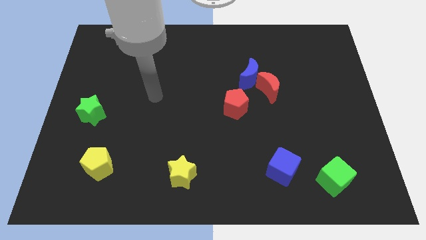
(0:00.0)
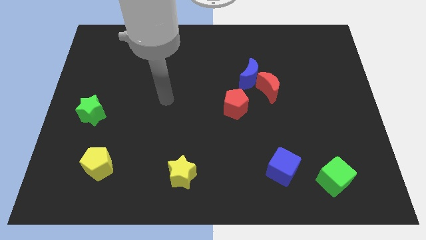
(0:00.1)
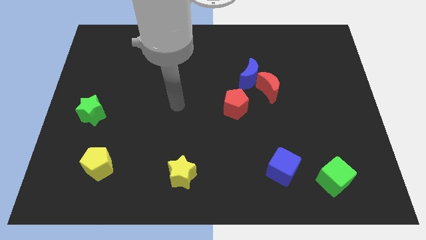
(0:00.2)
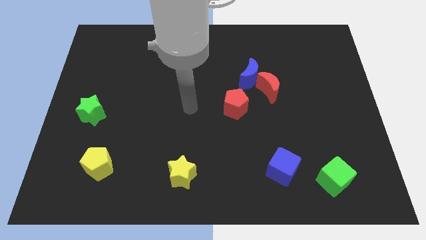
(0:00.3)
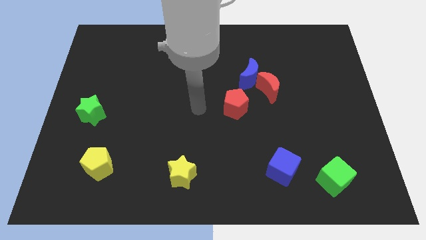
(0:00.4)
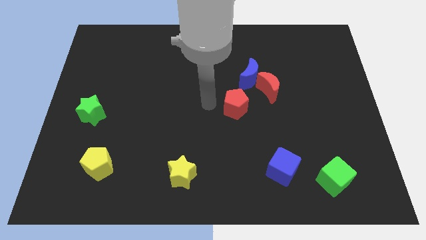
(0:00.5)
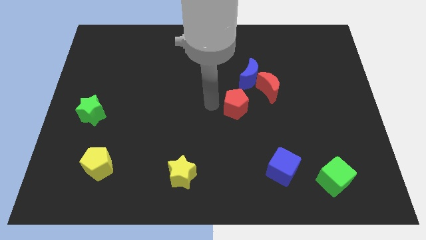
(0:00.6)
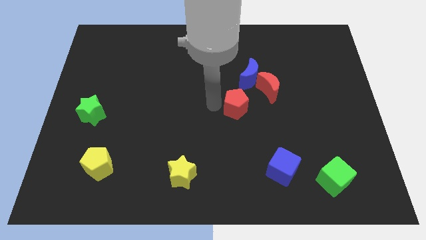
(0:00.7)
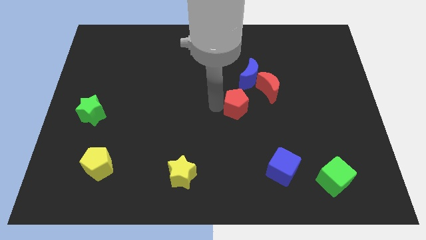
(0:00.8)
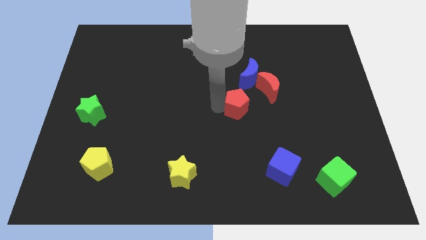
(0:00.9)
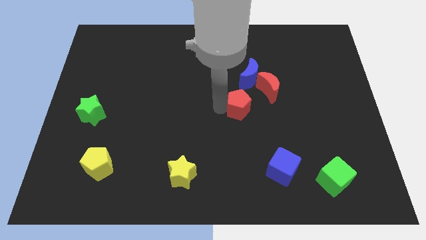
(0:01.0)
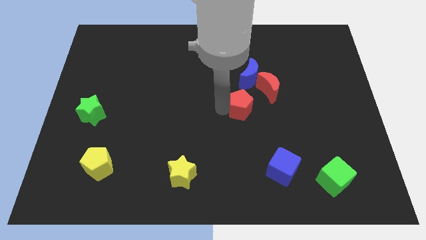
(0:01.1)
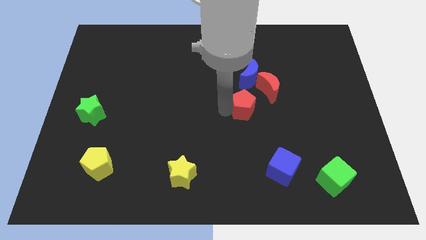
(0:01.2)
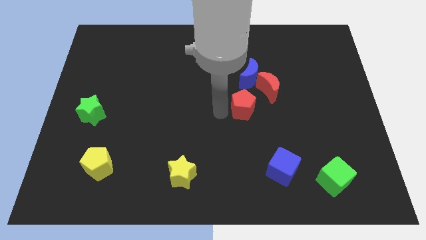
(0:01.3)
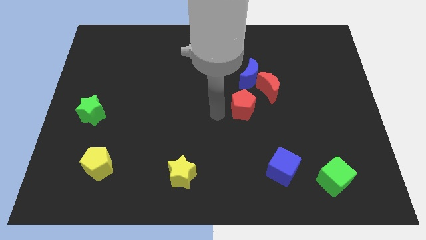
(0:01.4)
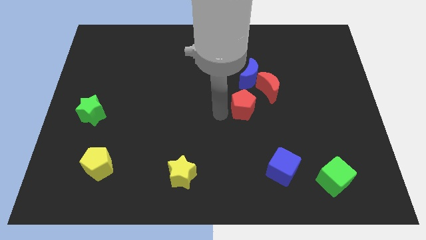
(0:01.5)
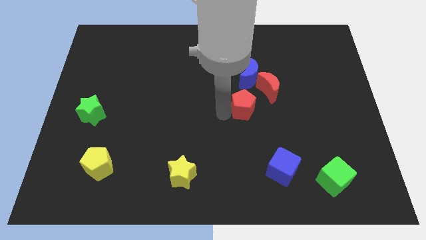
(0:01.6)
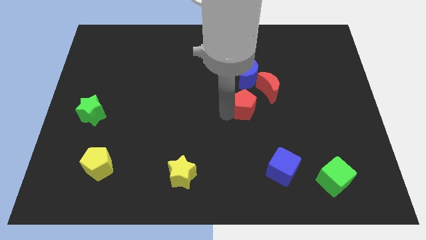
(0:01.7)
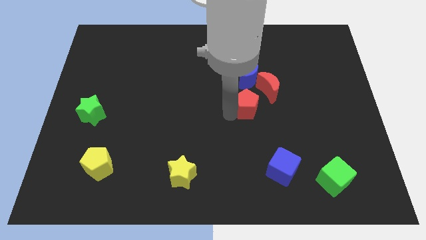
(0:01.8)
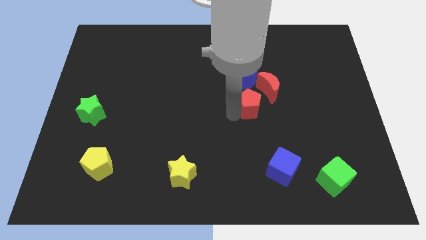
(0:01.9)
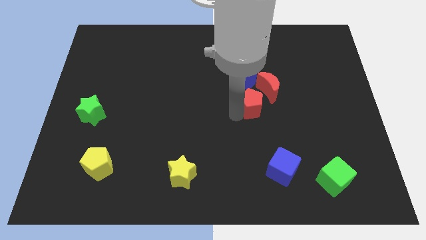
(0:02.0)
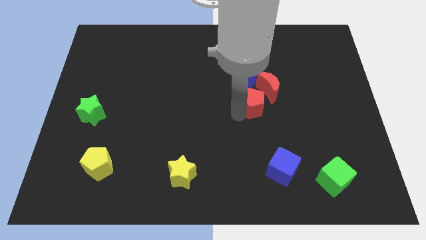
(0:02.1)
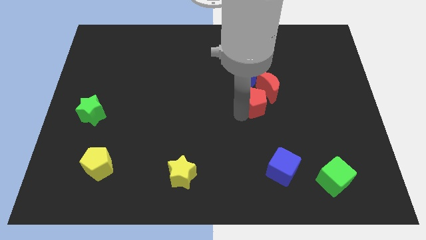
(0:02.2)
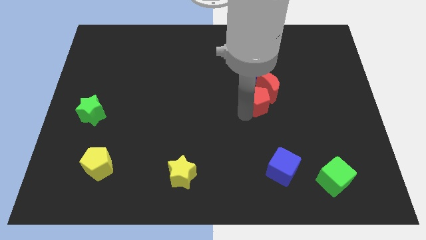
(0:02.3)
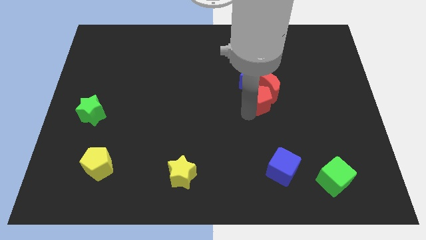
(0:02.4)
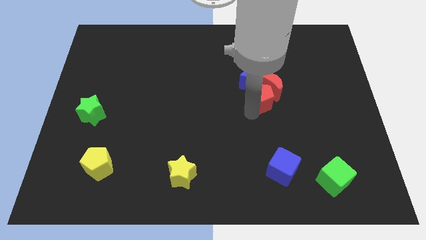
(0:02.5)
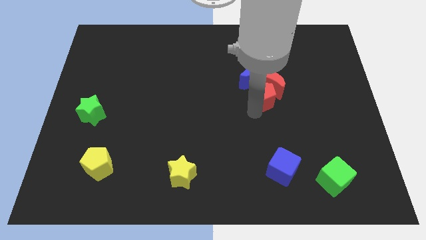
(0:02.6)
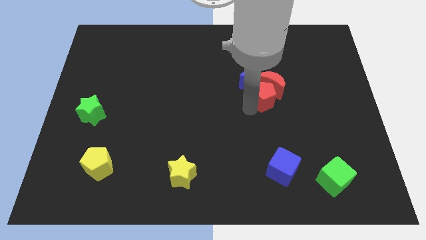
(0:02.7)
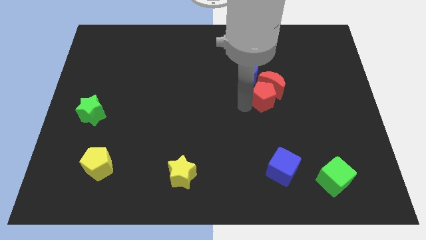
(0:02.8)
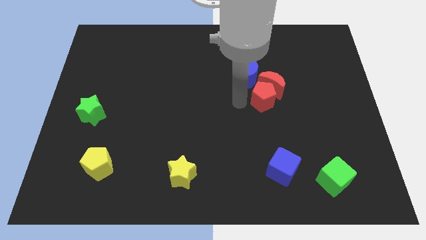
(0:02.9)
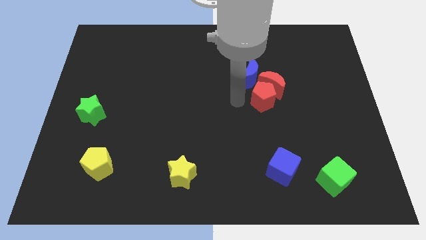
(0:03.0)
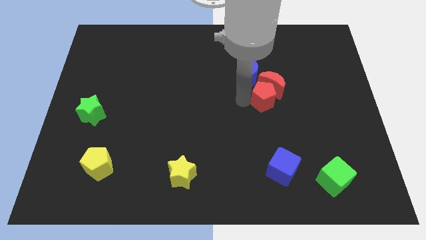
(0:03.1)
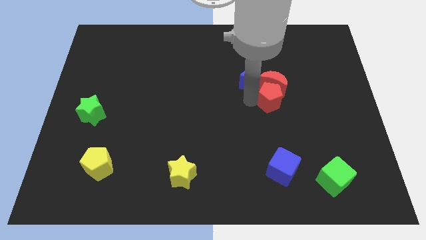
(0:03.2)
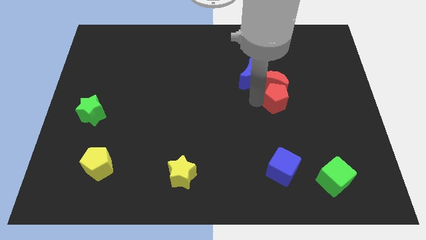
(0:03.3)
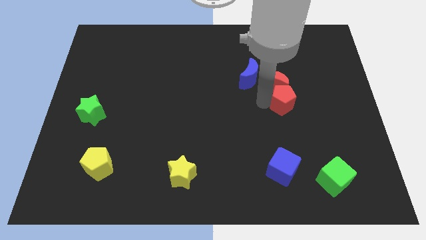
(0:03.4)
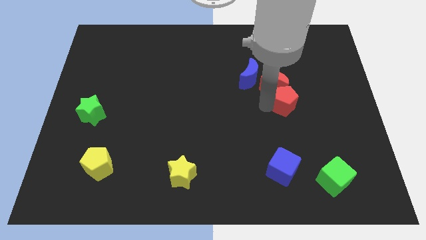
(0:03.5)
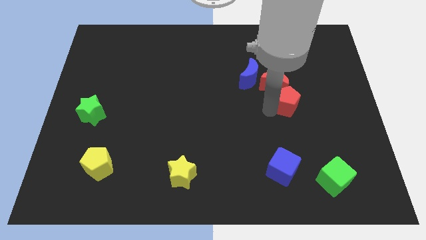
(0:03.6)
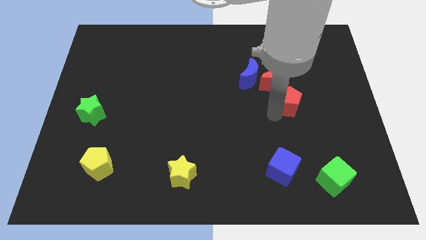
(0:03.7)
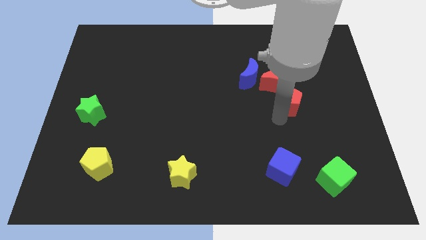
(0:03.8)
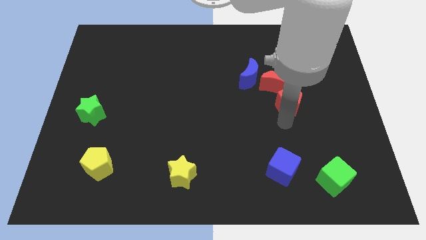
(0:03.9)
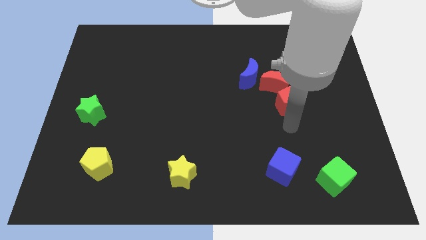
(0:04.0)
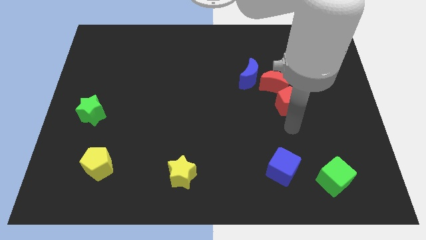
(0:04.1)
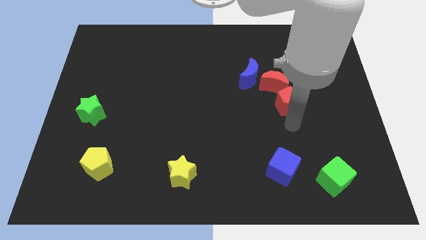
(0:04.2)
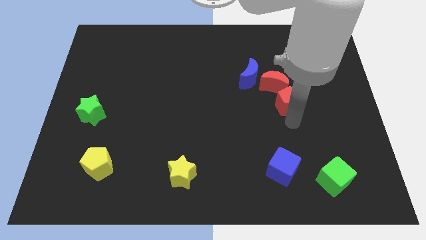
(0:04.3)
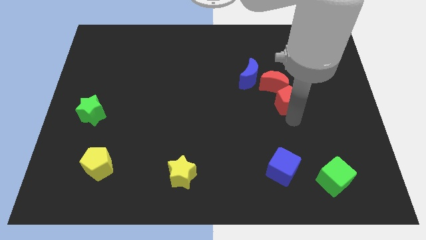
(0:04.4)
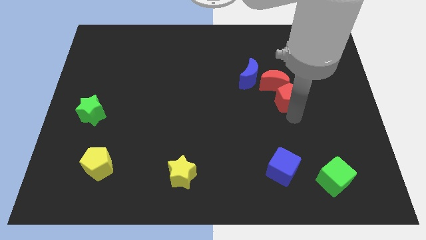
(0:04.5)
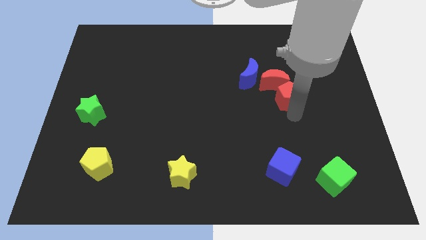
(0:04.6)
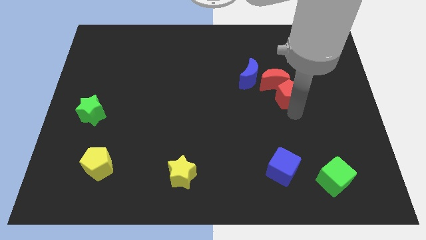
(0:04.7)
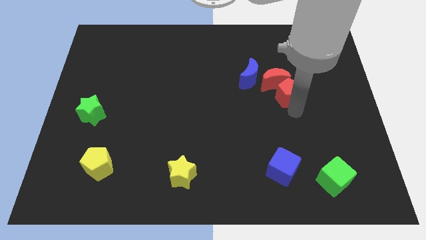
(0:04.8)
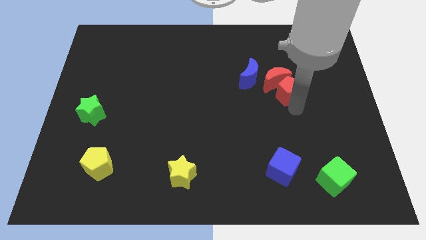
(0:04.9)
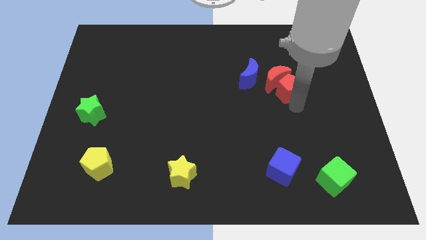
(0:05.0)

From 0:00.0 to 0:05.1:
put the red pentagon to the right side of the blue moon

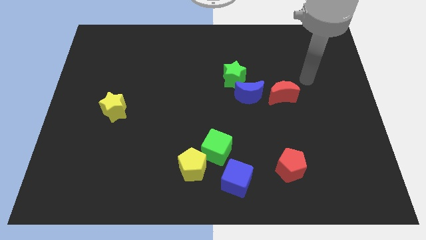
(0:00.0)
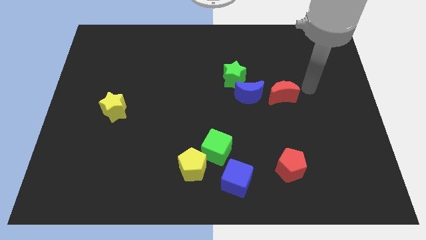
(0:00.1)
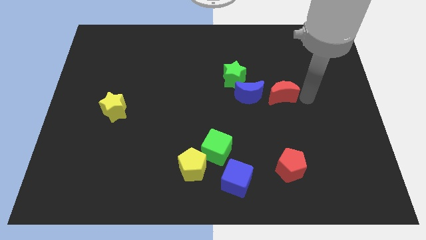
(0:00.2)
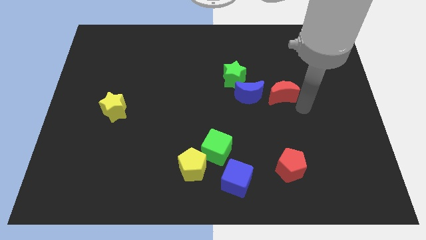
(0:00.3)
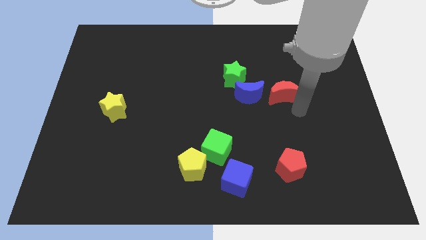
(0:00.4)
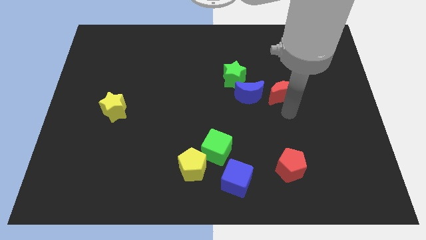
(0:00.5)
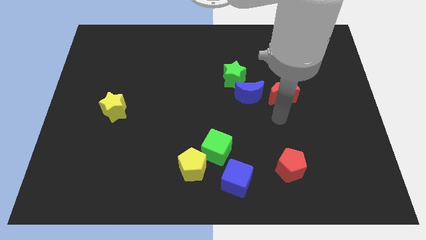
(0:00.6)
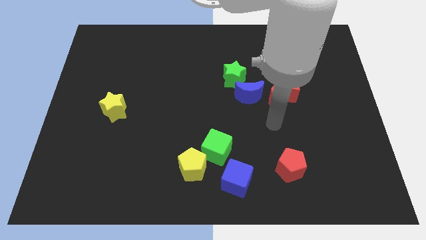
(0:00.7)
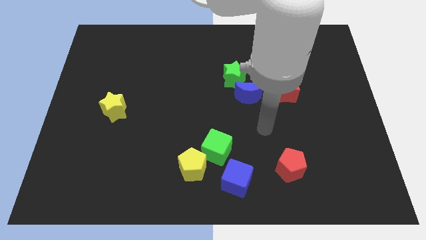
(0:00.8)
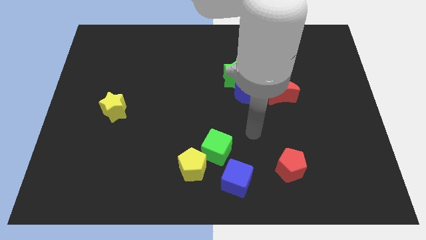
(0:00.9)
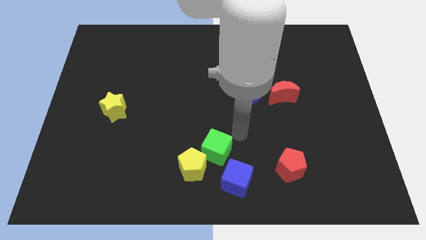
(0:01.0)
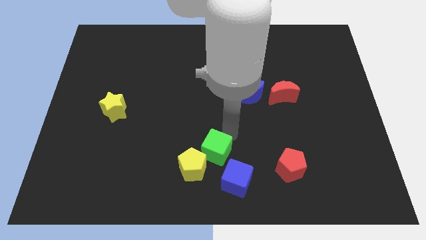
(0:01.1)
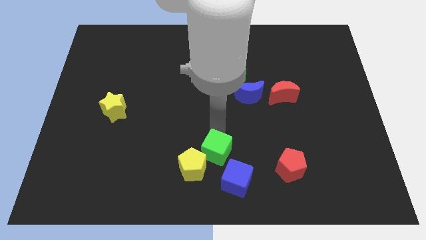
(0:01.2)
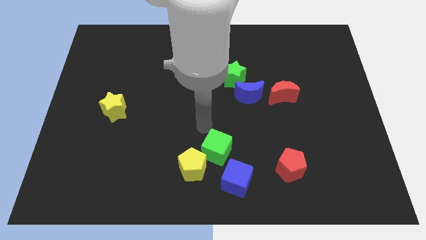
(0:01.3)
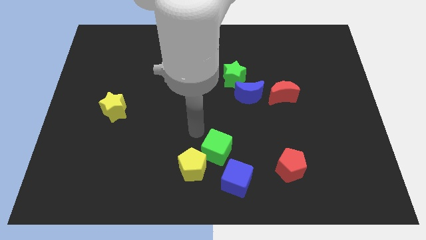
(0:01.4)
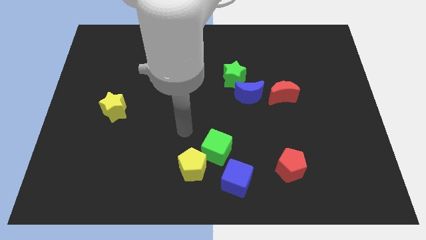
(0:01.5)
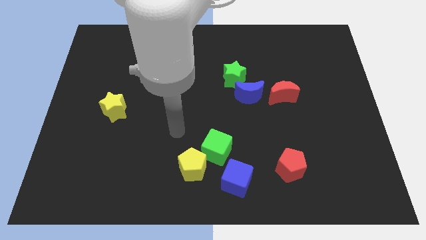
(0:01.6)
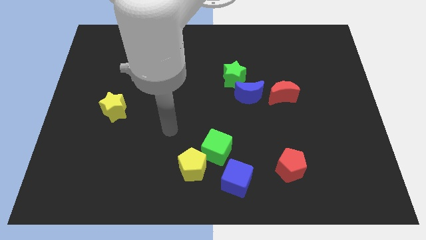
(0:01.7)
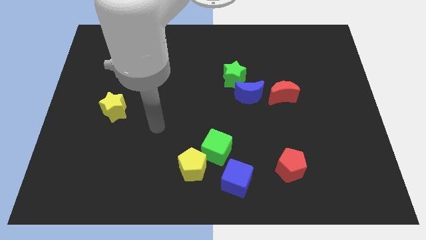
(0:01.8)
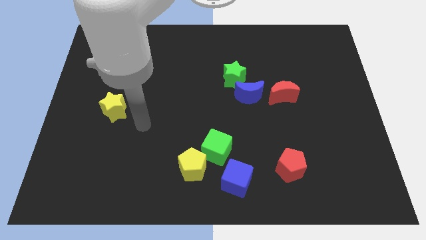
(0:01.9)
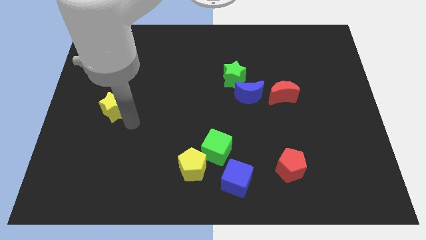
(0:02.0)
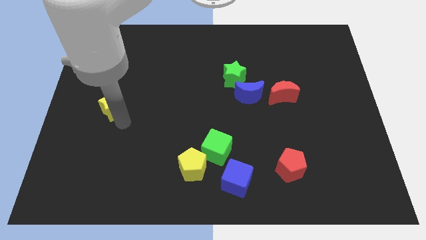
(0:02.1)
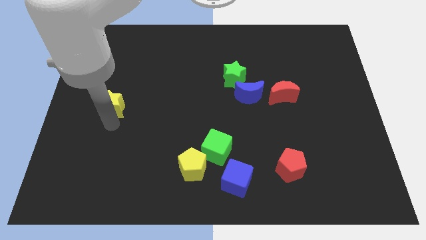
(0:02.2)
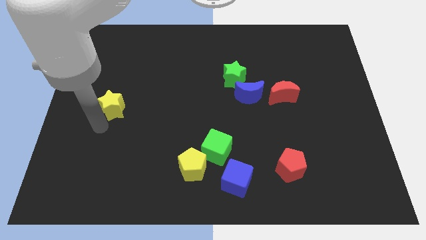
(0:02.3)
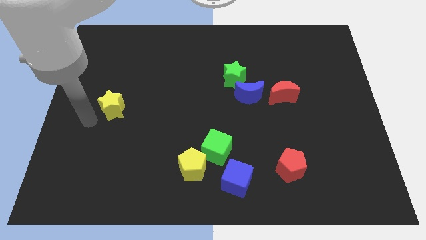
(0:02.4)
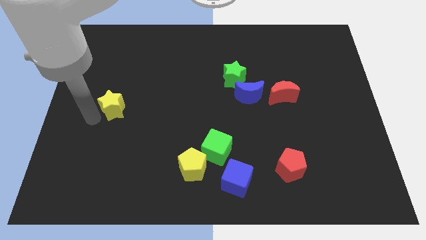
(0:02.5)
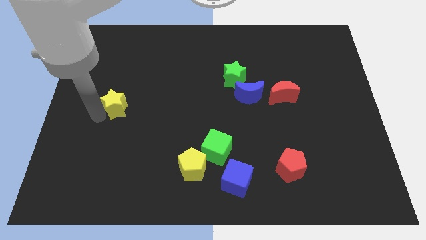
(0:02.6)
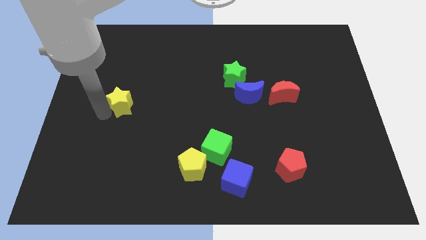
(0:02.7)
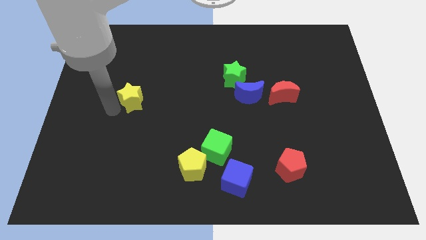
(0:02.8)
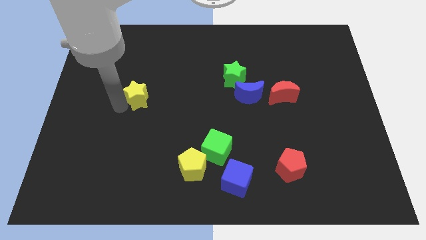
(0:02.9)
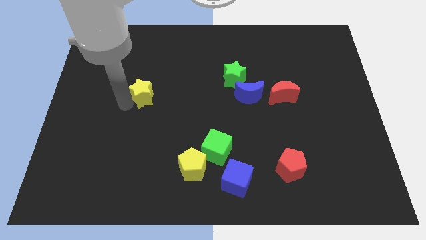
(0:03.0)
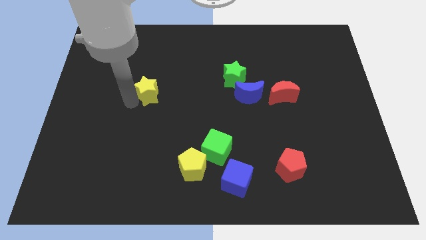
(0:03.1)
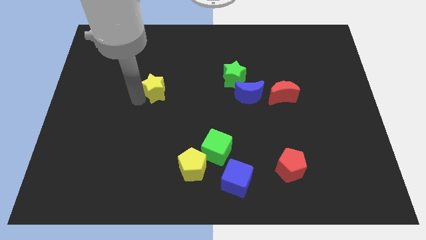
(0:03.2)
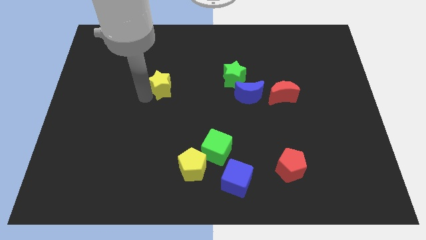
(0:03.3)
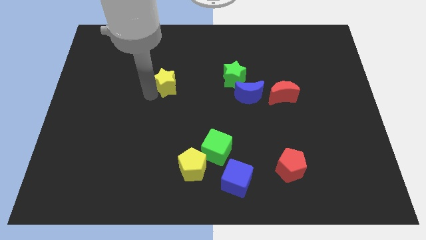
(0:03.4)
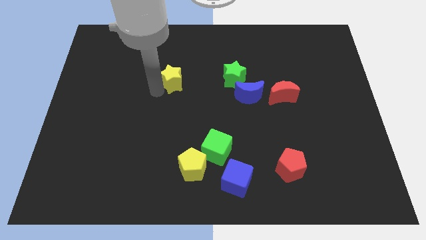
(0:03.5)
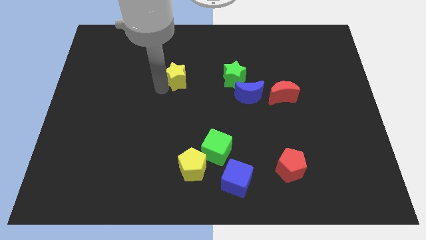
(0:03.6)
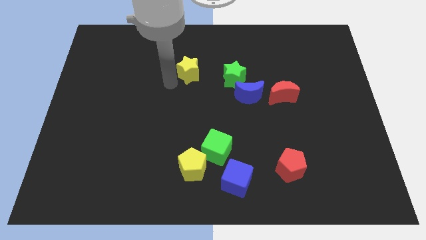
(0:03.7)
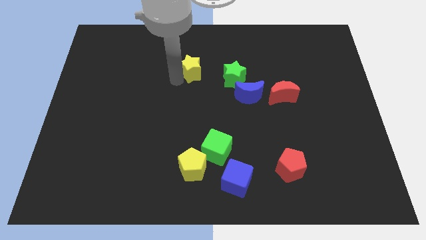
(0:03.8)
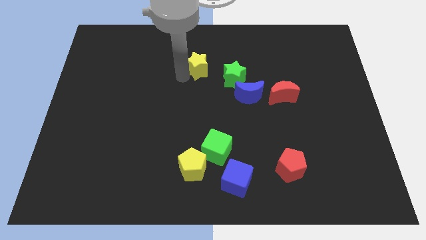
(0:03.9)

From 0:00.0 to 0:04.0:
slide the yellow star to the top left side of the green star
